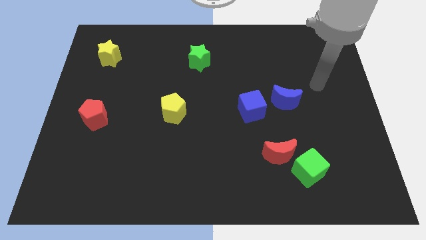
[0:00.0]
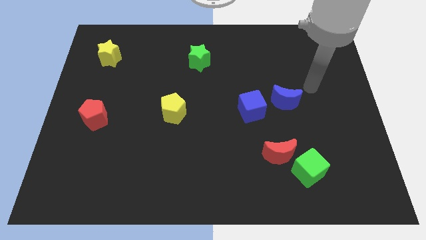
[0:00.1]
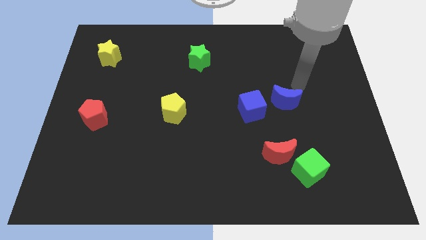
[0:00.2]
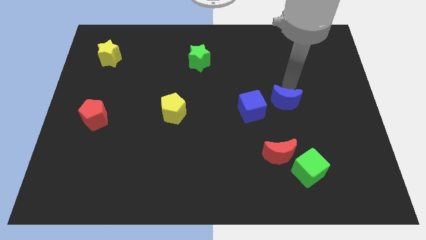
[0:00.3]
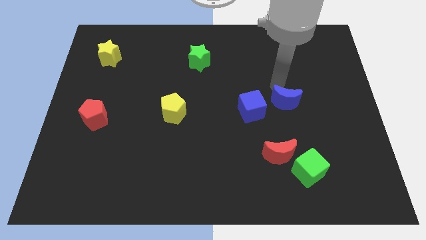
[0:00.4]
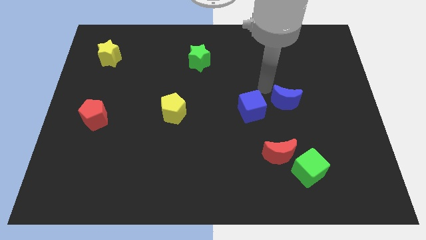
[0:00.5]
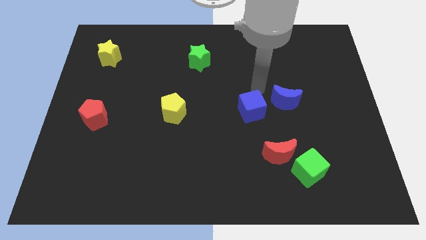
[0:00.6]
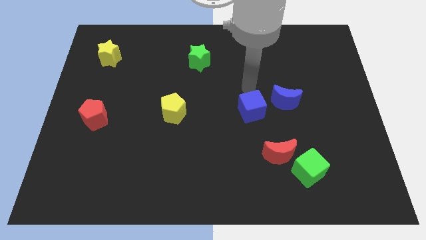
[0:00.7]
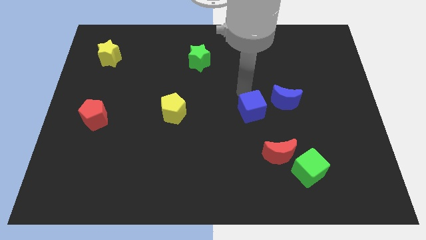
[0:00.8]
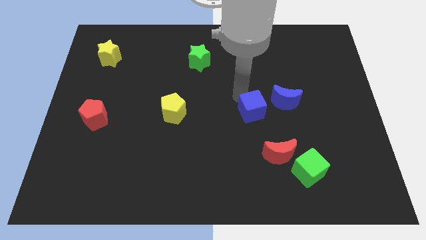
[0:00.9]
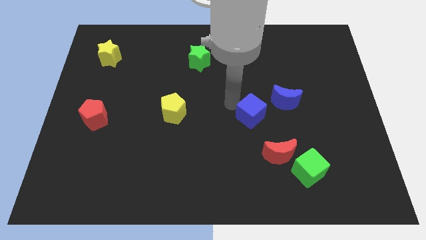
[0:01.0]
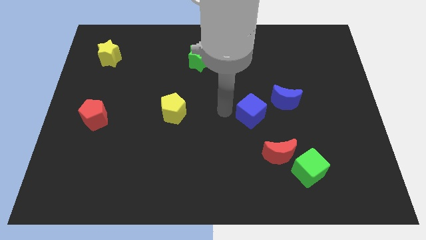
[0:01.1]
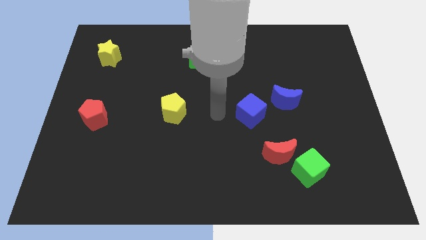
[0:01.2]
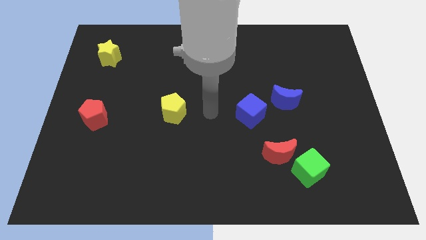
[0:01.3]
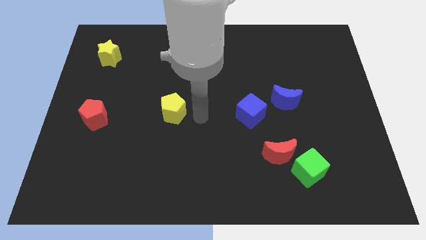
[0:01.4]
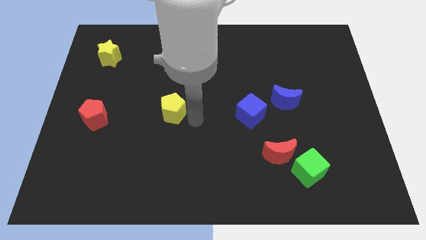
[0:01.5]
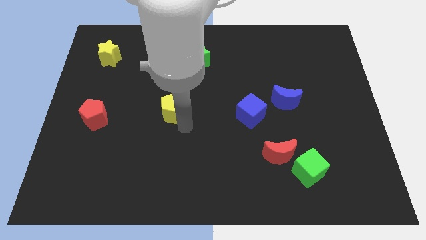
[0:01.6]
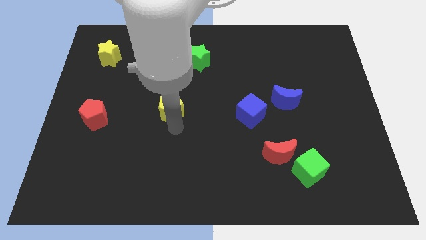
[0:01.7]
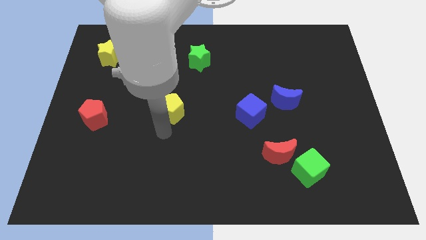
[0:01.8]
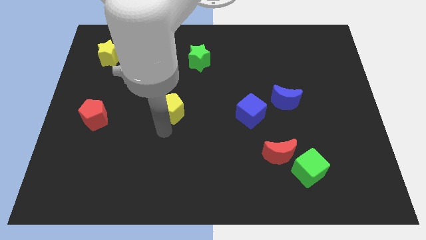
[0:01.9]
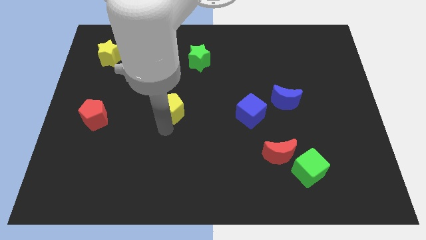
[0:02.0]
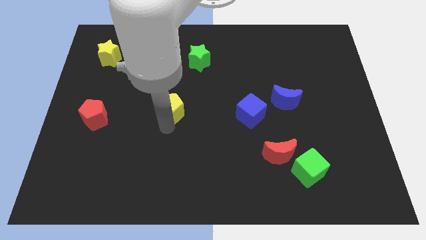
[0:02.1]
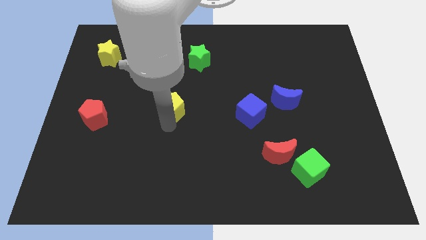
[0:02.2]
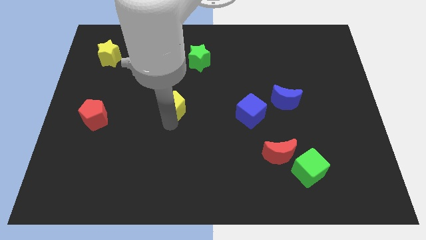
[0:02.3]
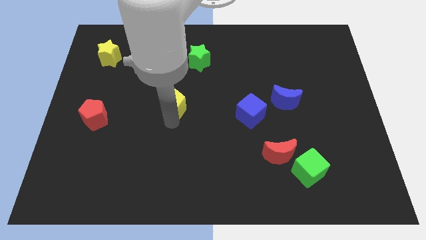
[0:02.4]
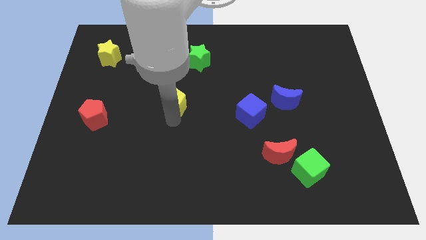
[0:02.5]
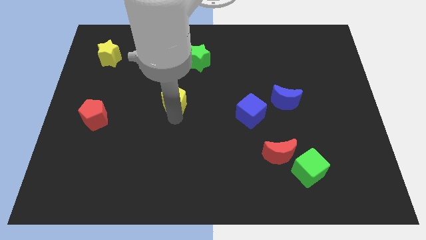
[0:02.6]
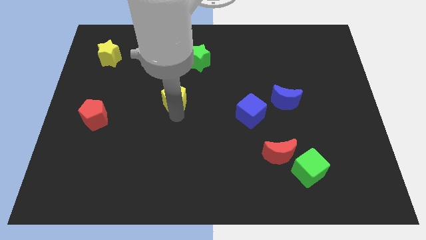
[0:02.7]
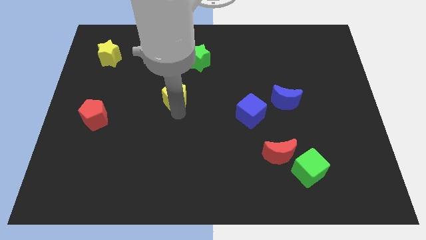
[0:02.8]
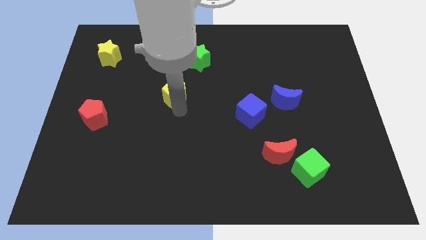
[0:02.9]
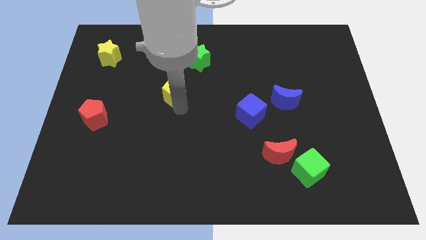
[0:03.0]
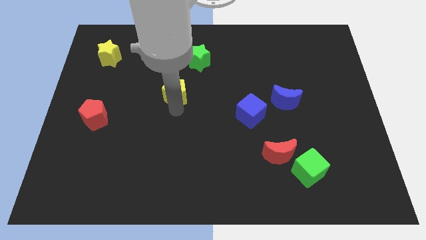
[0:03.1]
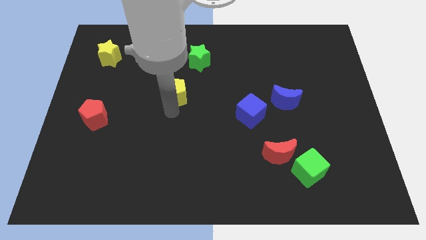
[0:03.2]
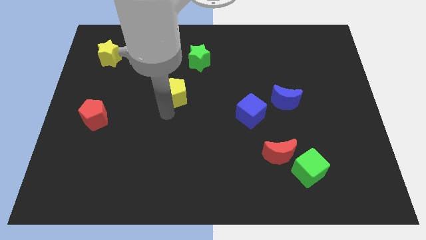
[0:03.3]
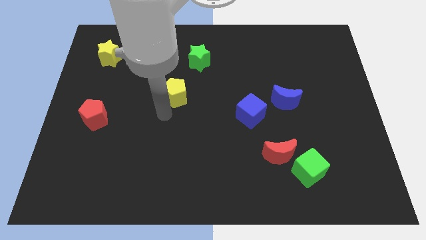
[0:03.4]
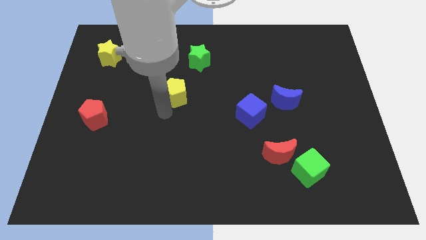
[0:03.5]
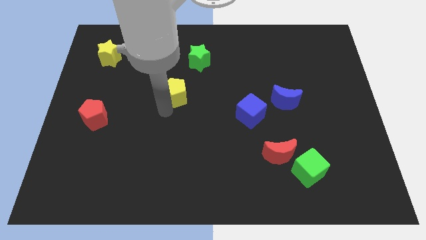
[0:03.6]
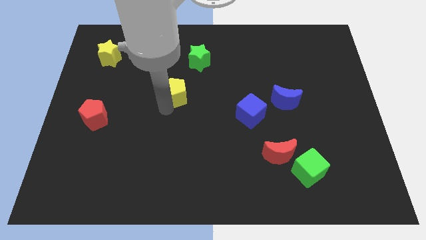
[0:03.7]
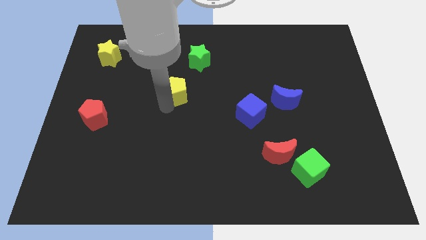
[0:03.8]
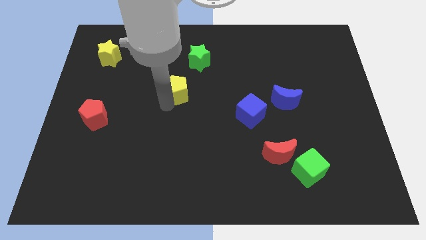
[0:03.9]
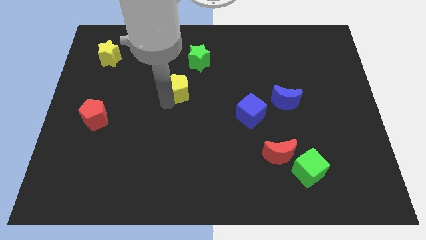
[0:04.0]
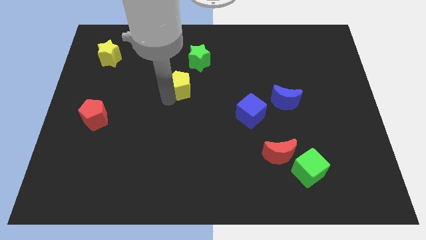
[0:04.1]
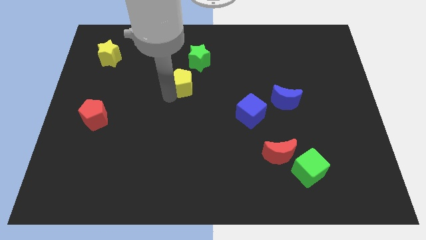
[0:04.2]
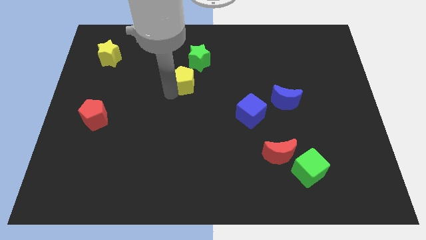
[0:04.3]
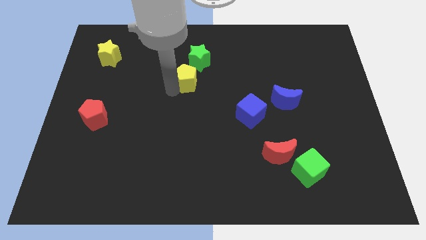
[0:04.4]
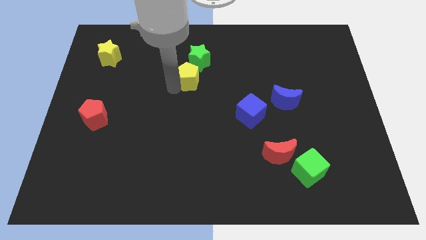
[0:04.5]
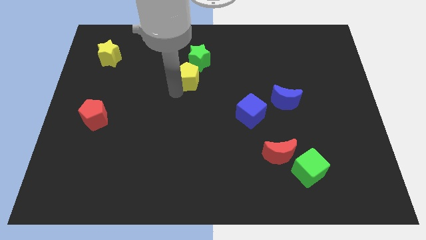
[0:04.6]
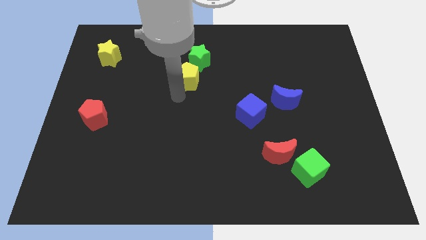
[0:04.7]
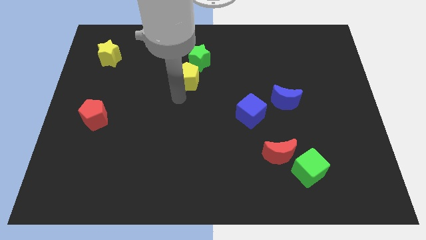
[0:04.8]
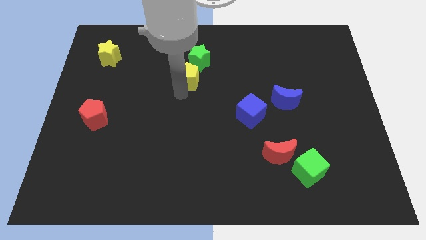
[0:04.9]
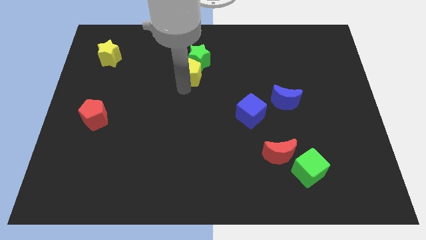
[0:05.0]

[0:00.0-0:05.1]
push the yellow pentagon to the green star

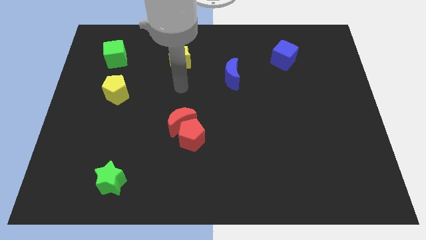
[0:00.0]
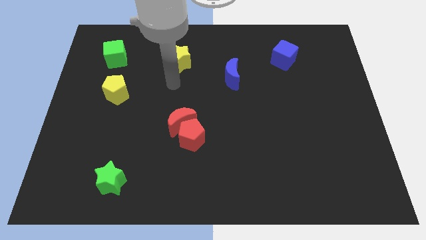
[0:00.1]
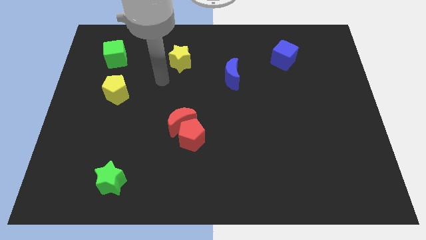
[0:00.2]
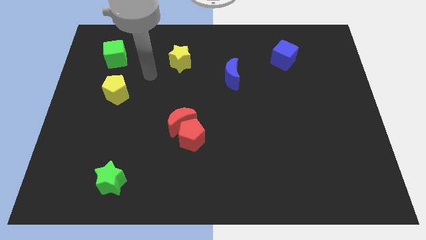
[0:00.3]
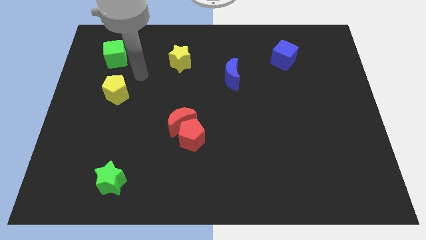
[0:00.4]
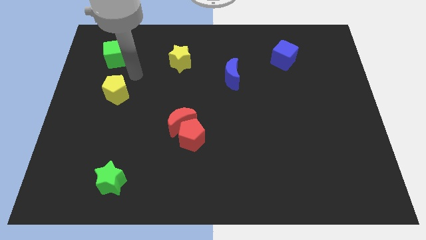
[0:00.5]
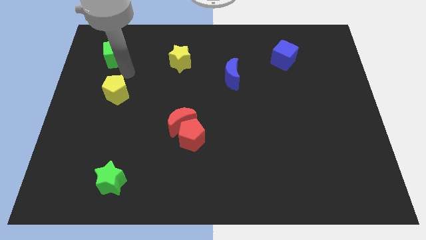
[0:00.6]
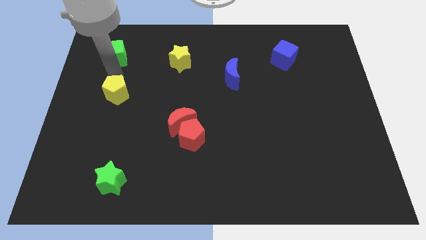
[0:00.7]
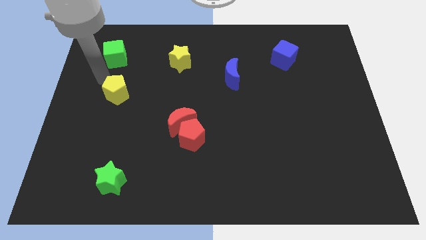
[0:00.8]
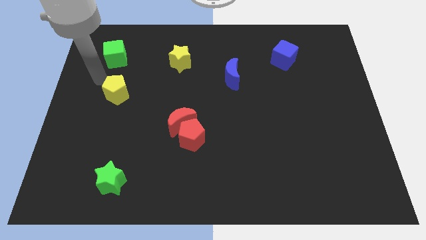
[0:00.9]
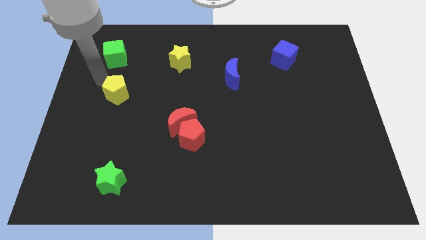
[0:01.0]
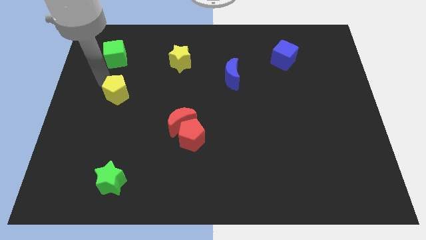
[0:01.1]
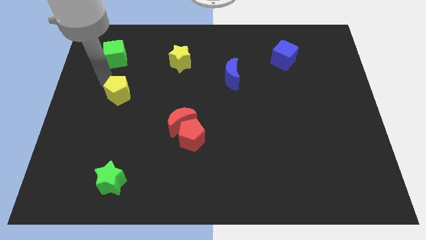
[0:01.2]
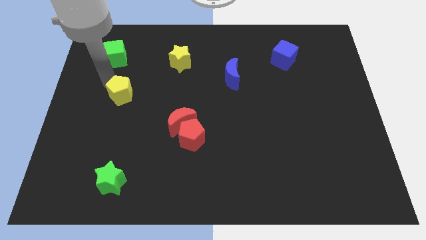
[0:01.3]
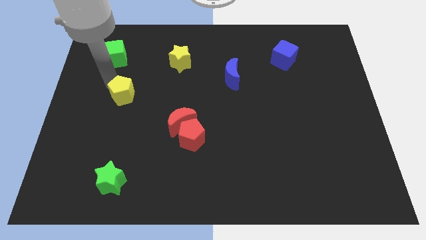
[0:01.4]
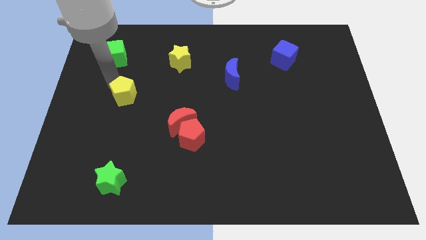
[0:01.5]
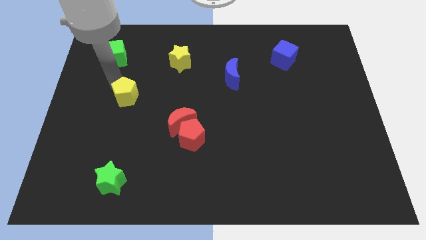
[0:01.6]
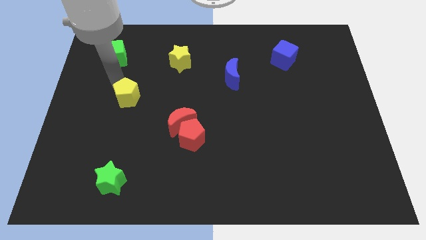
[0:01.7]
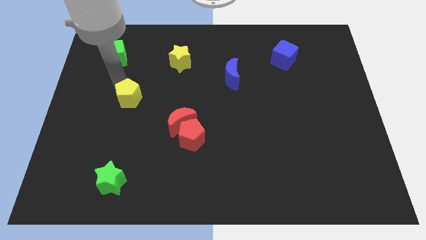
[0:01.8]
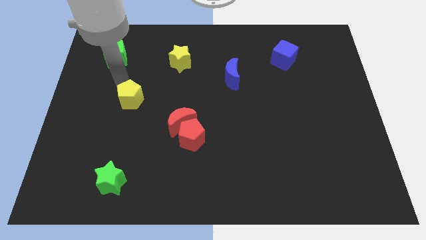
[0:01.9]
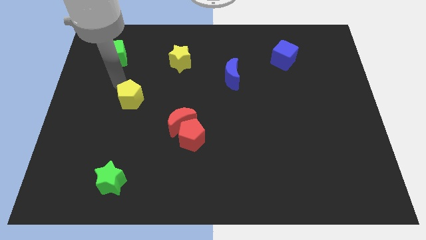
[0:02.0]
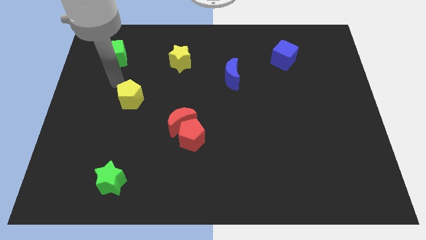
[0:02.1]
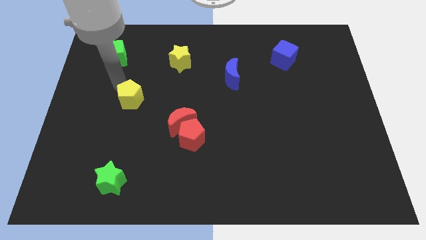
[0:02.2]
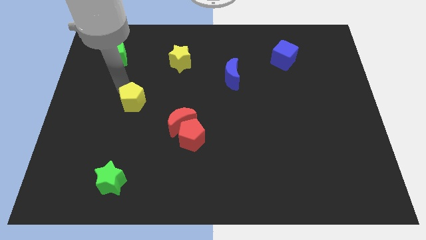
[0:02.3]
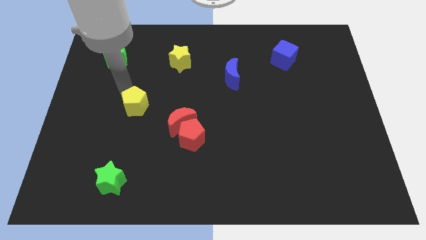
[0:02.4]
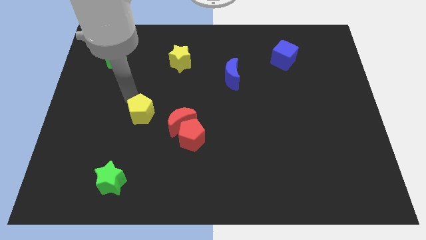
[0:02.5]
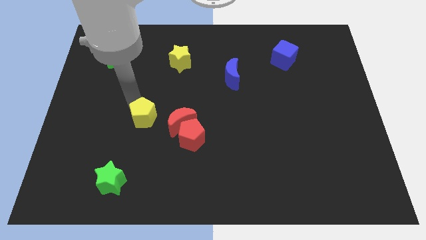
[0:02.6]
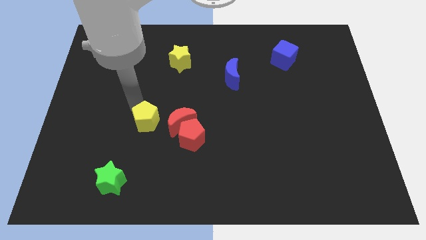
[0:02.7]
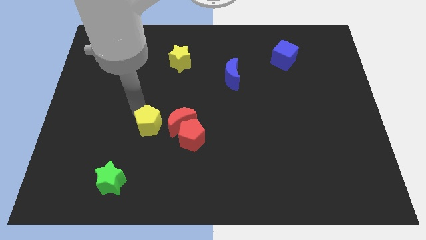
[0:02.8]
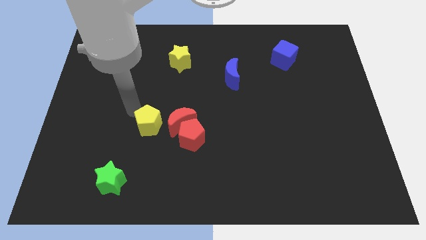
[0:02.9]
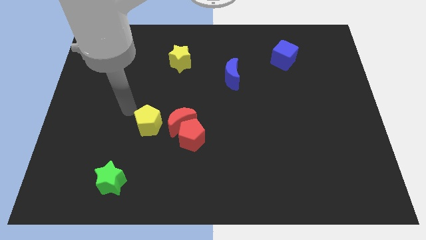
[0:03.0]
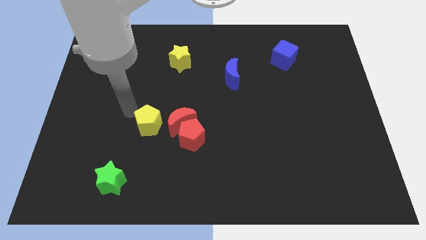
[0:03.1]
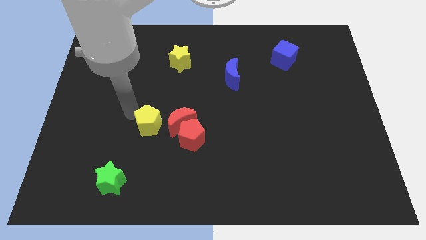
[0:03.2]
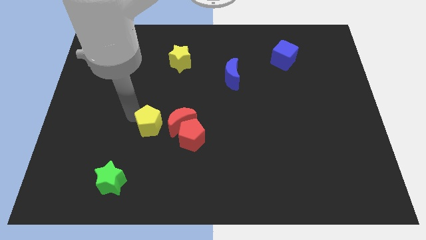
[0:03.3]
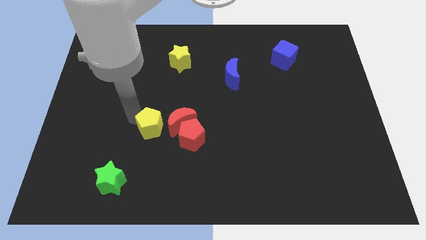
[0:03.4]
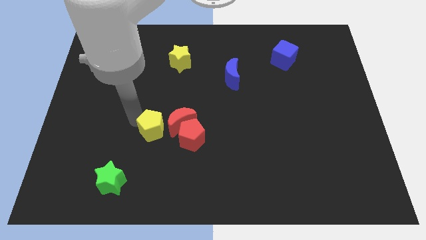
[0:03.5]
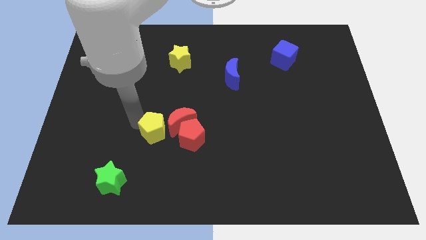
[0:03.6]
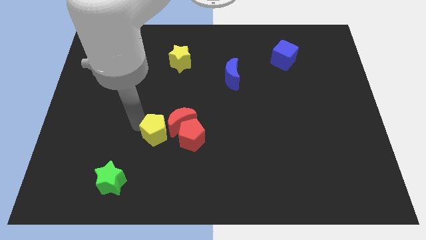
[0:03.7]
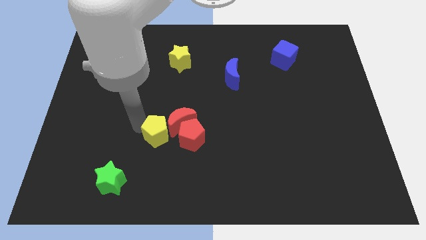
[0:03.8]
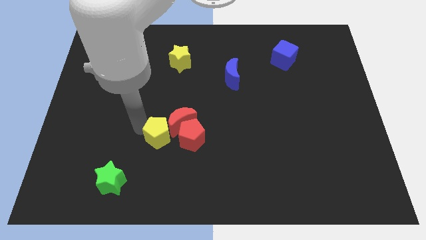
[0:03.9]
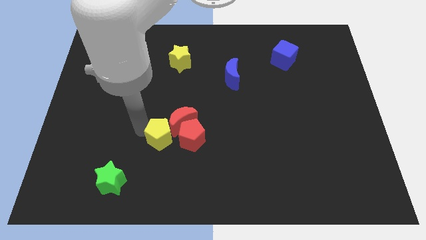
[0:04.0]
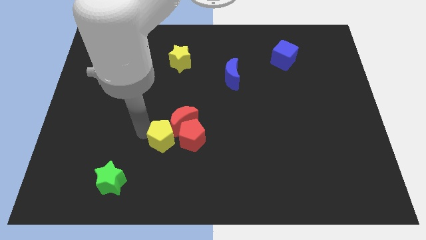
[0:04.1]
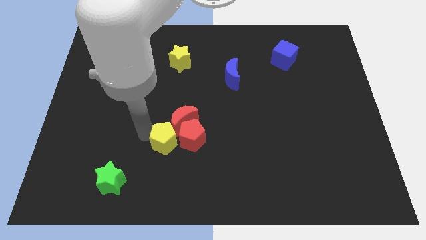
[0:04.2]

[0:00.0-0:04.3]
push the yellow pentagon towards the red pentagon
